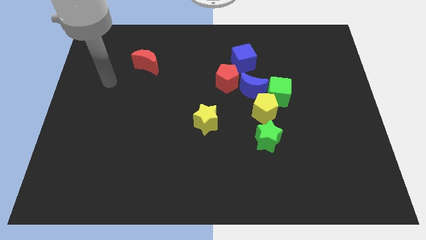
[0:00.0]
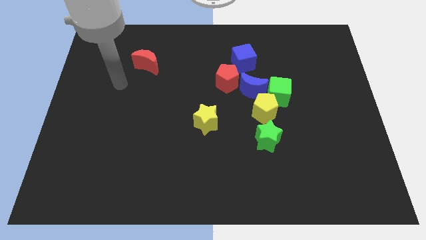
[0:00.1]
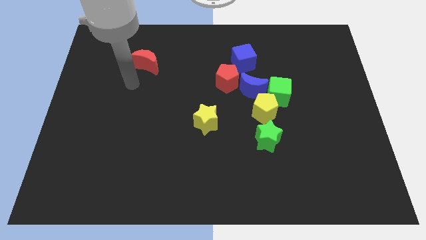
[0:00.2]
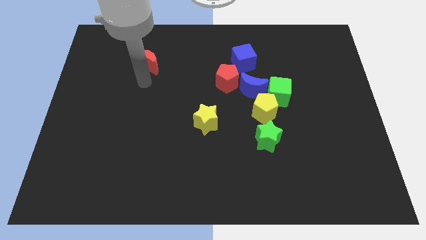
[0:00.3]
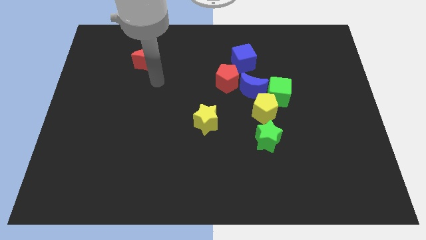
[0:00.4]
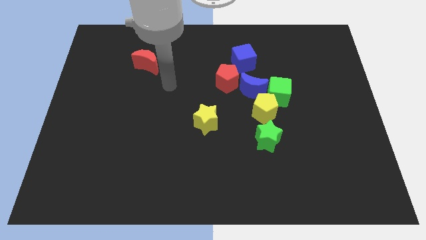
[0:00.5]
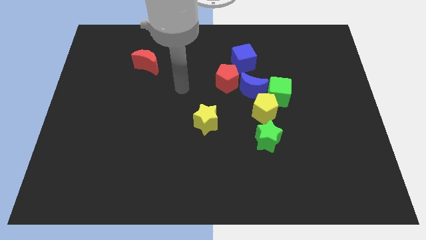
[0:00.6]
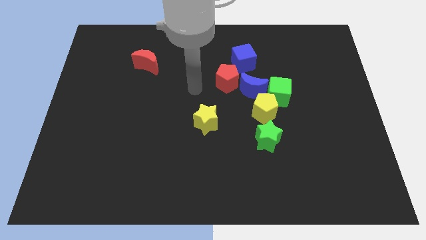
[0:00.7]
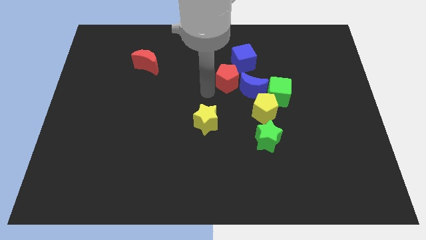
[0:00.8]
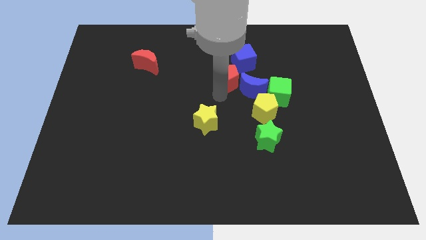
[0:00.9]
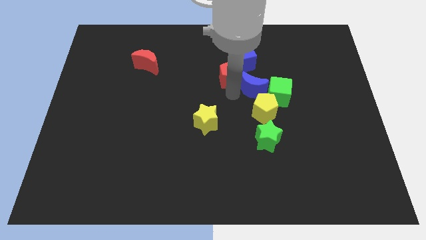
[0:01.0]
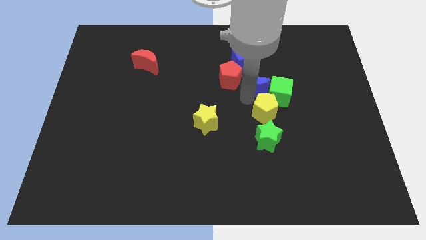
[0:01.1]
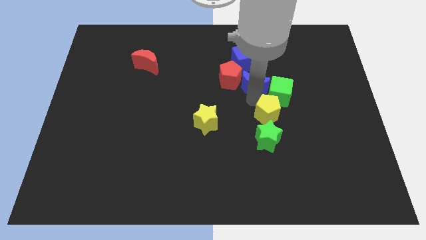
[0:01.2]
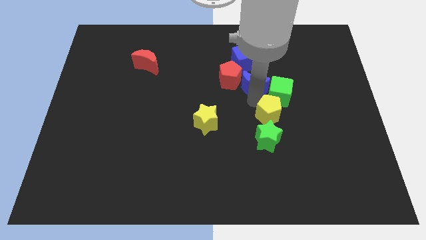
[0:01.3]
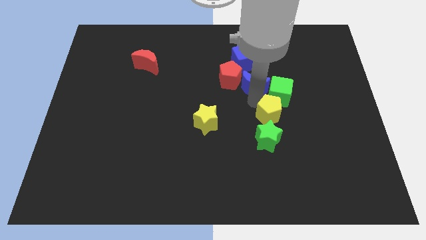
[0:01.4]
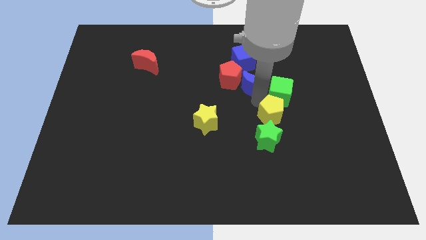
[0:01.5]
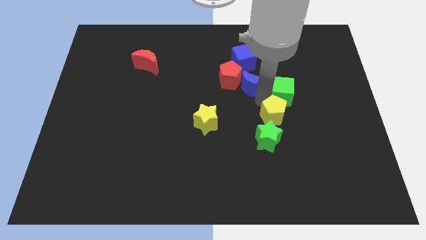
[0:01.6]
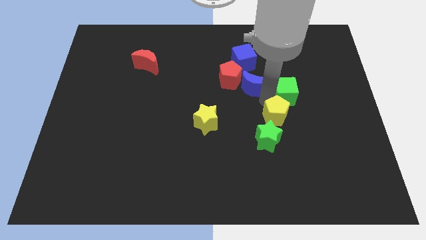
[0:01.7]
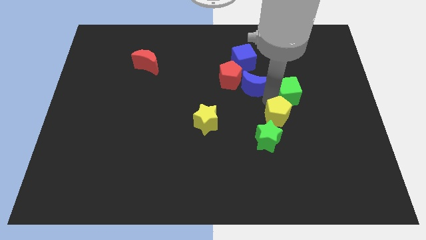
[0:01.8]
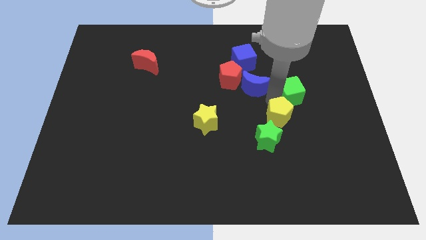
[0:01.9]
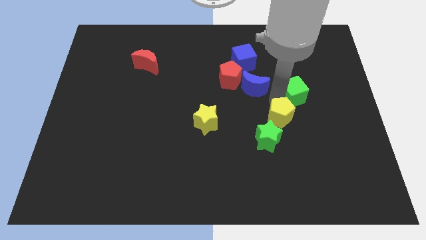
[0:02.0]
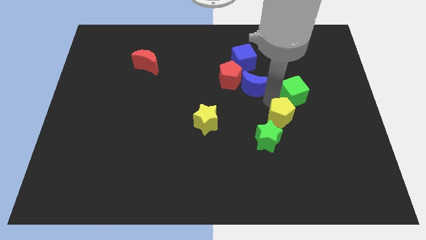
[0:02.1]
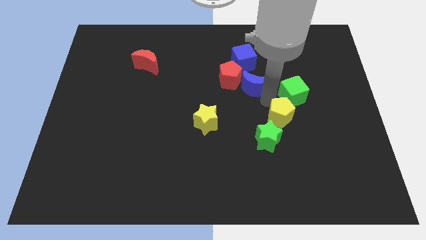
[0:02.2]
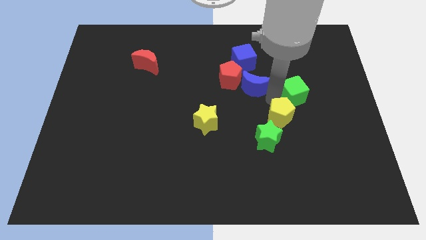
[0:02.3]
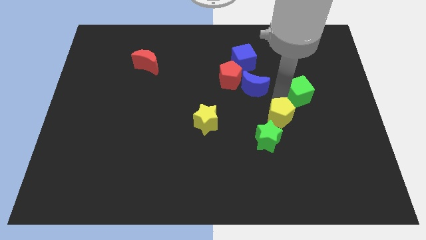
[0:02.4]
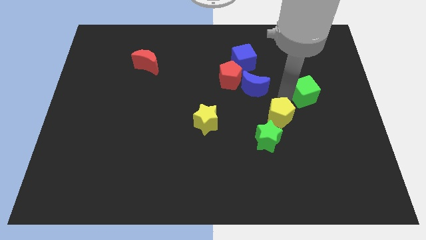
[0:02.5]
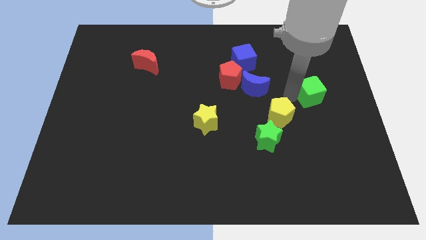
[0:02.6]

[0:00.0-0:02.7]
separate the green cube from the yellow pentagon and blue moon

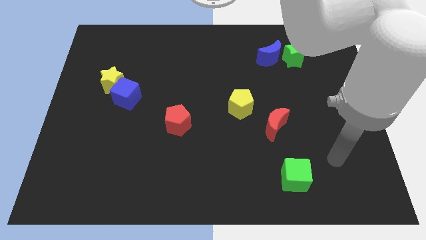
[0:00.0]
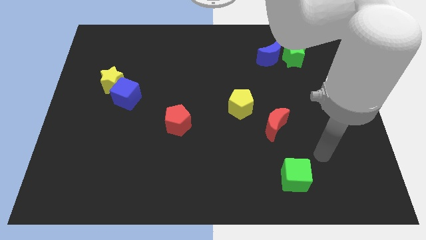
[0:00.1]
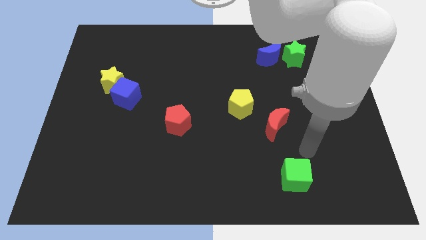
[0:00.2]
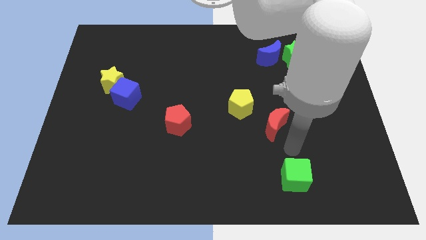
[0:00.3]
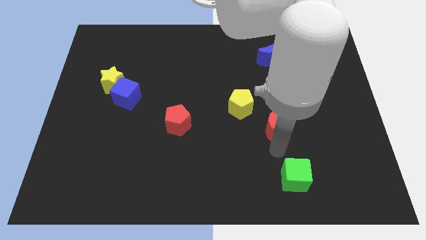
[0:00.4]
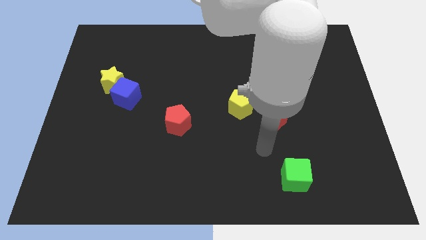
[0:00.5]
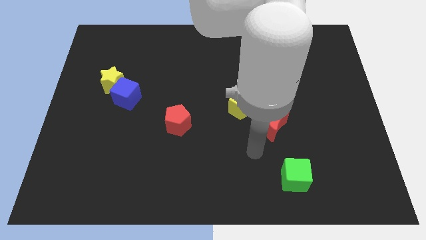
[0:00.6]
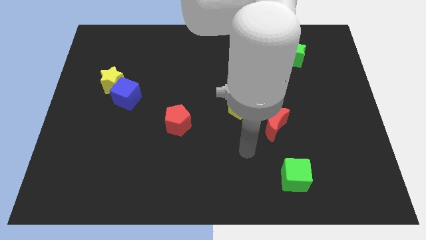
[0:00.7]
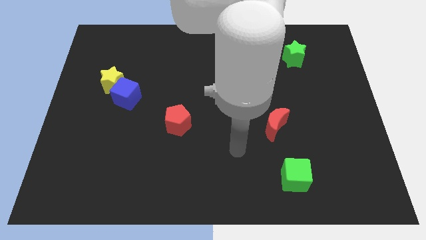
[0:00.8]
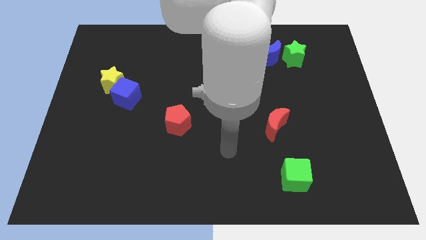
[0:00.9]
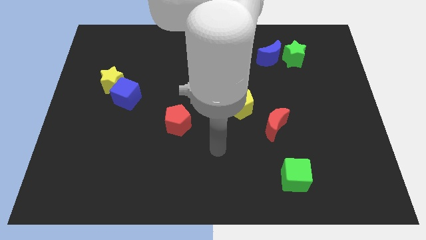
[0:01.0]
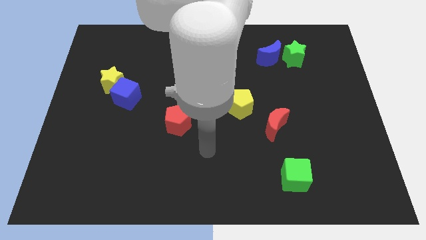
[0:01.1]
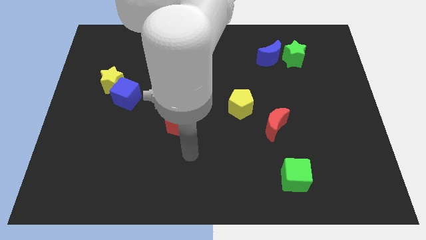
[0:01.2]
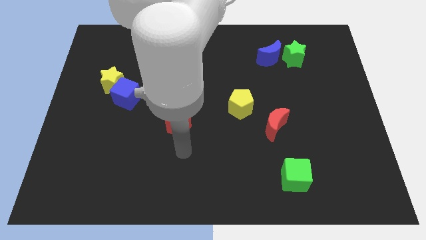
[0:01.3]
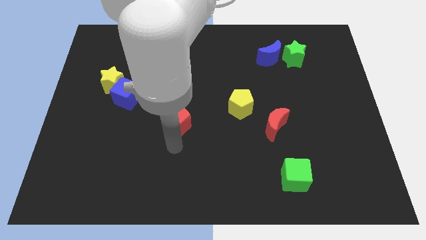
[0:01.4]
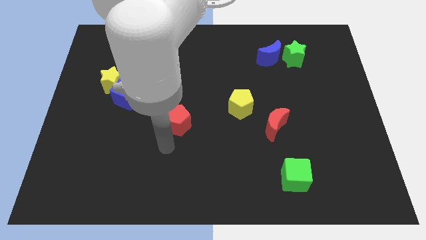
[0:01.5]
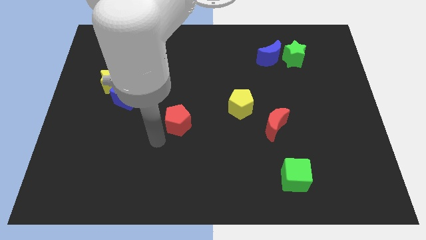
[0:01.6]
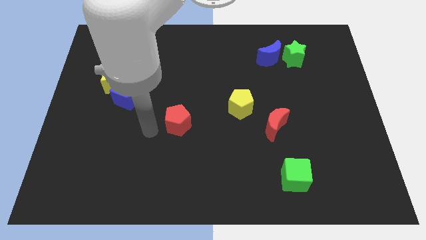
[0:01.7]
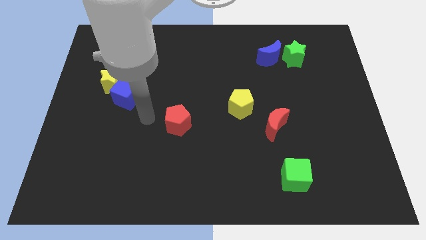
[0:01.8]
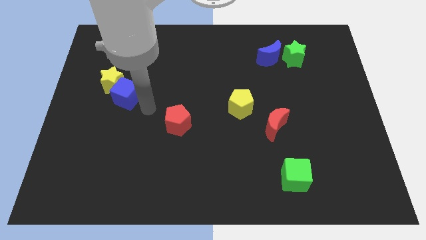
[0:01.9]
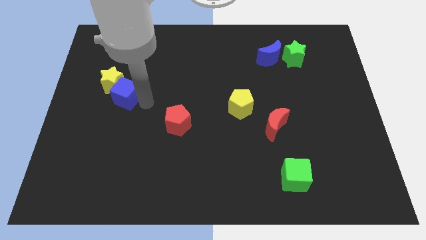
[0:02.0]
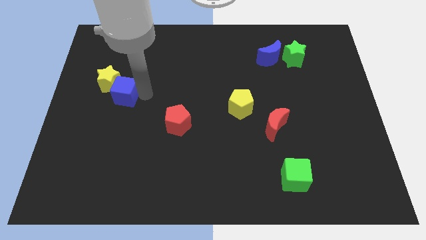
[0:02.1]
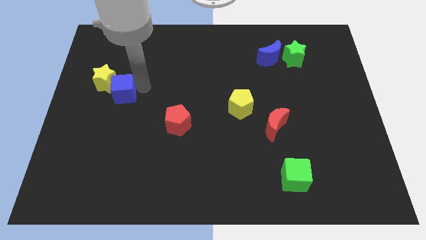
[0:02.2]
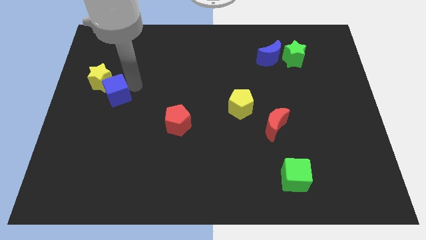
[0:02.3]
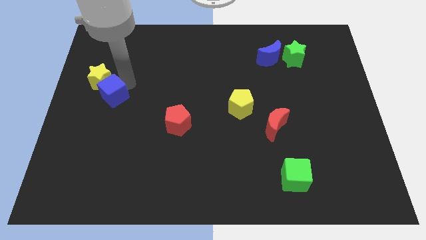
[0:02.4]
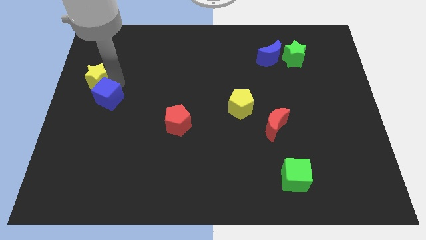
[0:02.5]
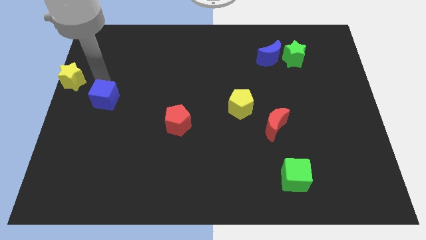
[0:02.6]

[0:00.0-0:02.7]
move the blue cube away from the yellow star

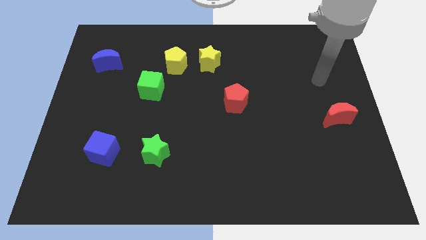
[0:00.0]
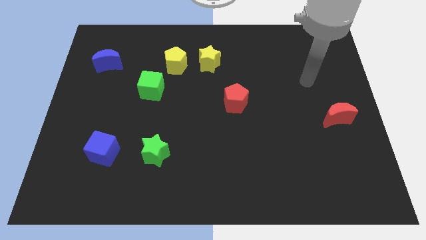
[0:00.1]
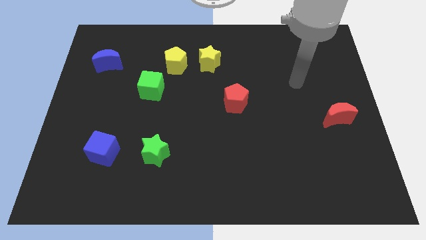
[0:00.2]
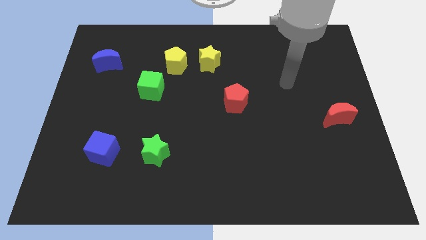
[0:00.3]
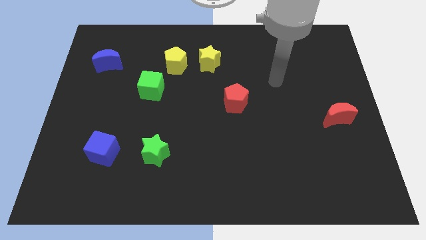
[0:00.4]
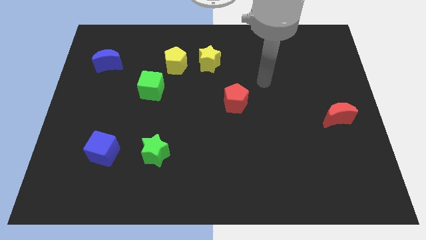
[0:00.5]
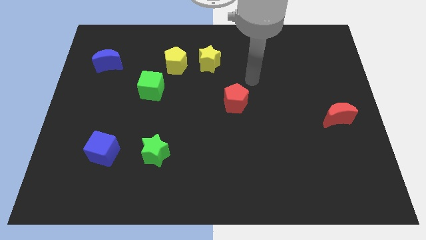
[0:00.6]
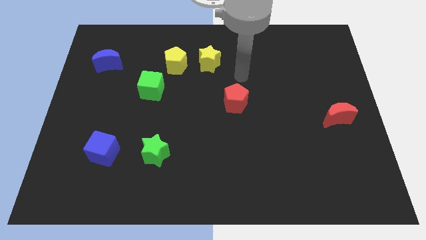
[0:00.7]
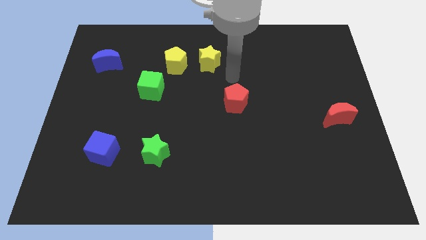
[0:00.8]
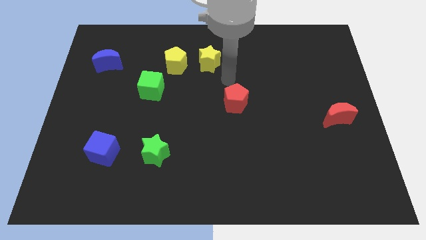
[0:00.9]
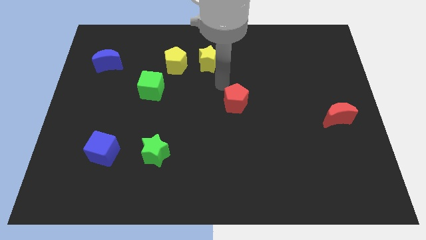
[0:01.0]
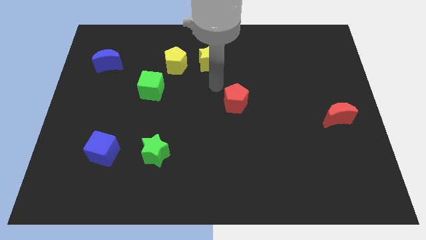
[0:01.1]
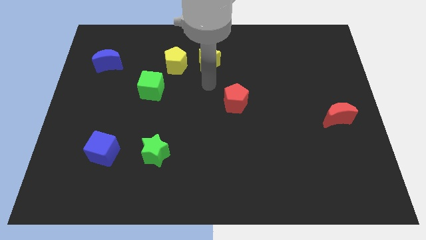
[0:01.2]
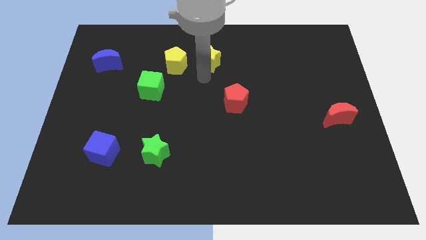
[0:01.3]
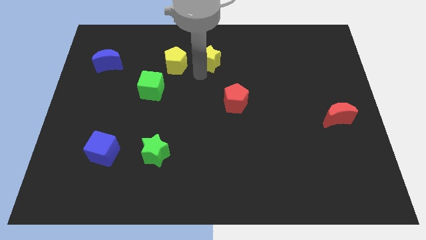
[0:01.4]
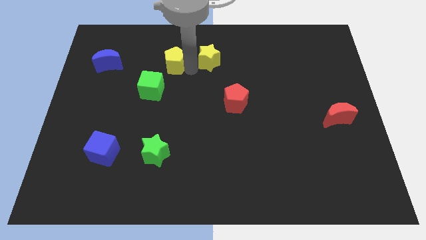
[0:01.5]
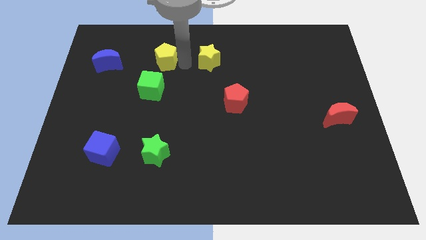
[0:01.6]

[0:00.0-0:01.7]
pull the yellow star apart from the yellow pentagon

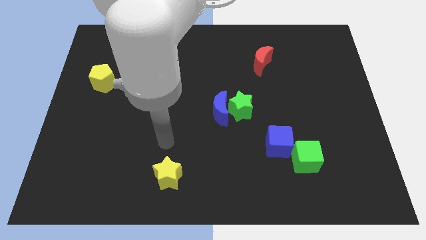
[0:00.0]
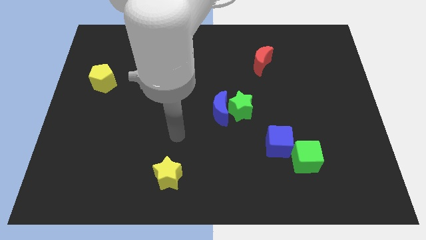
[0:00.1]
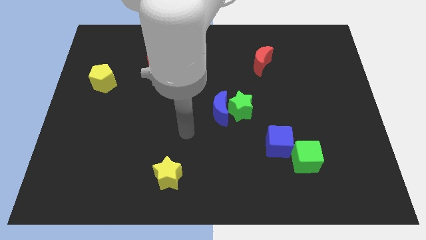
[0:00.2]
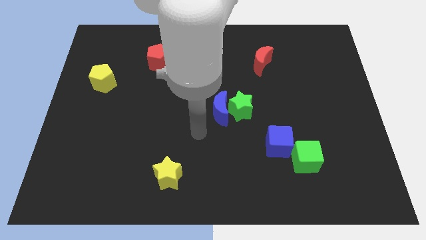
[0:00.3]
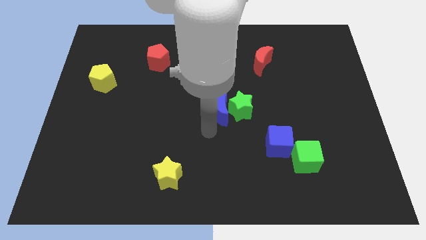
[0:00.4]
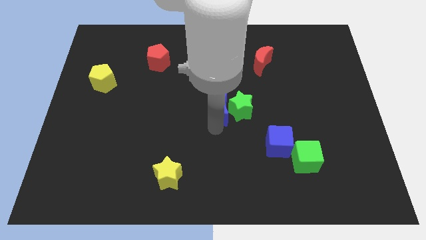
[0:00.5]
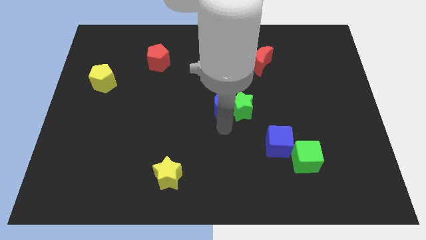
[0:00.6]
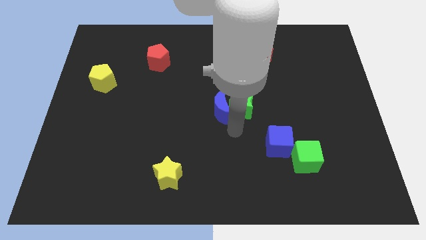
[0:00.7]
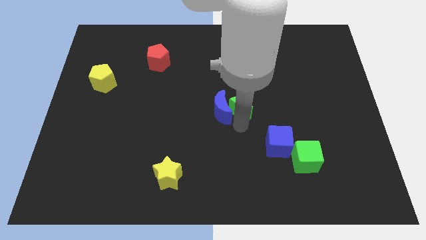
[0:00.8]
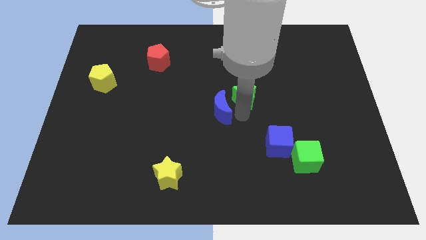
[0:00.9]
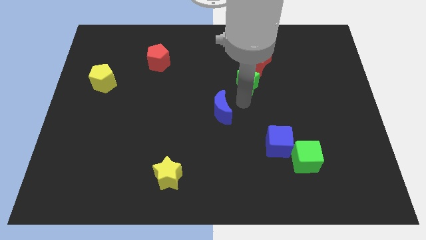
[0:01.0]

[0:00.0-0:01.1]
separate the blue moon from the green star

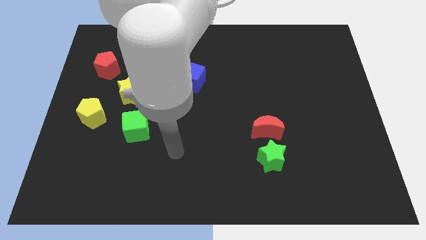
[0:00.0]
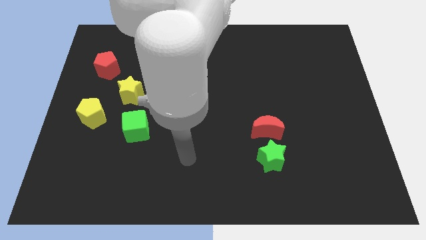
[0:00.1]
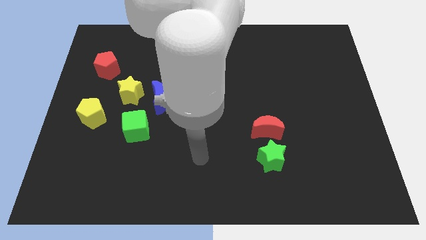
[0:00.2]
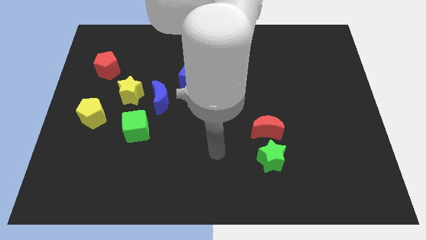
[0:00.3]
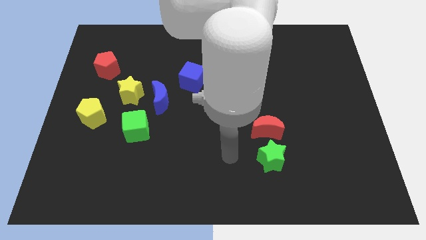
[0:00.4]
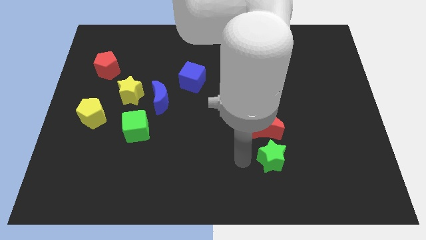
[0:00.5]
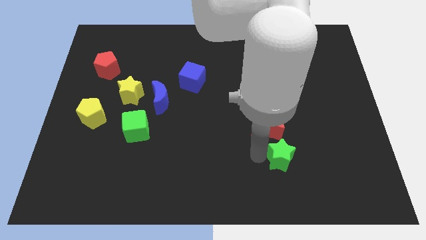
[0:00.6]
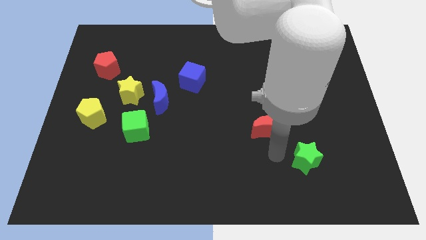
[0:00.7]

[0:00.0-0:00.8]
separate the red moon from the green star

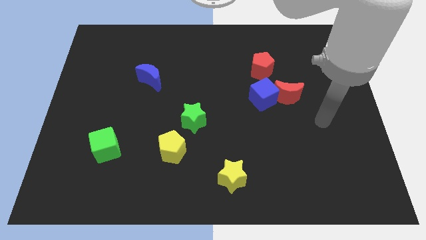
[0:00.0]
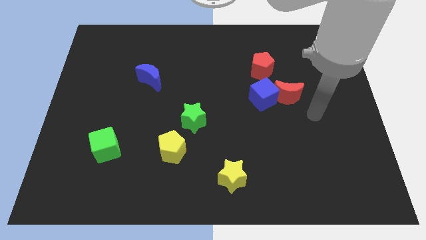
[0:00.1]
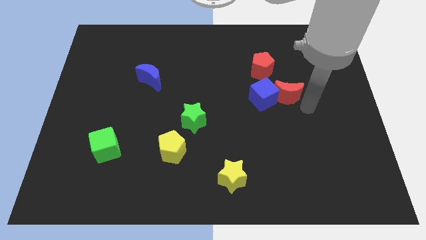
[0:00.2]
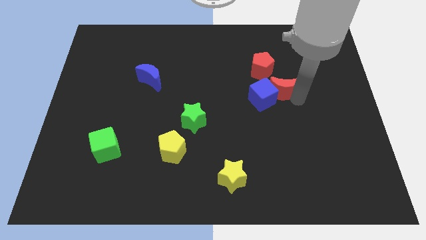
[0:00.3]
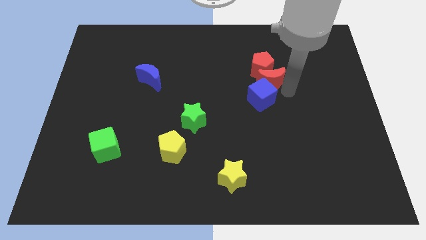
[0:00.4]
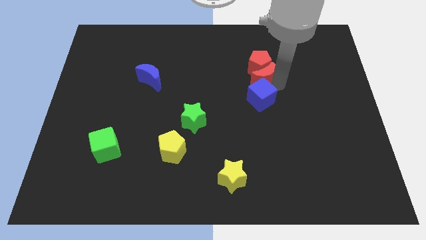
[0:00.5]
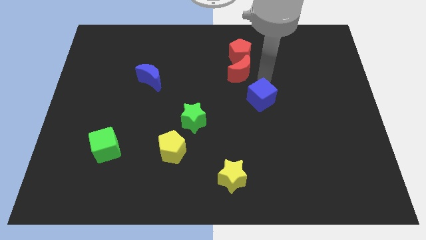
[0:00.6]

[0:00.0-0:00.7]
separate the blue cube from the red moon and red pentagon
